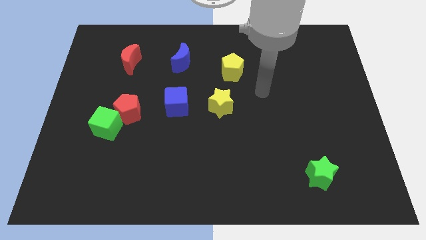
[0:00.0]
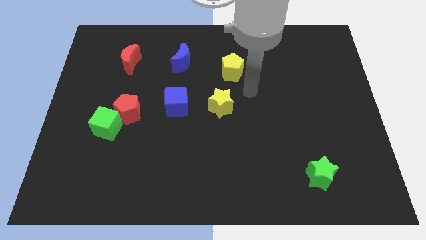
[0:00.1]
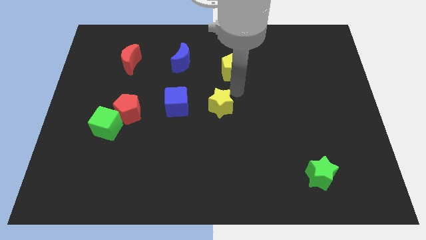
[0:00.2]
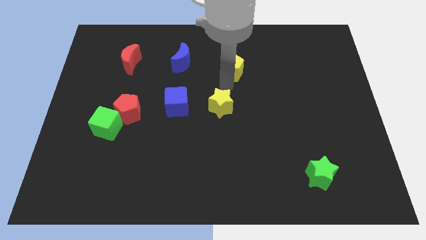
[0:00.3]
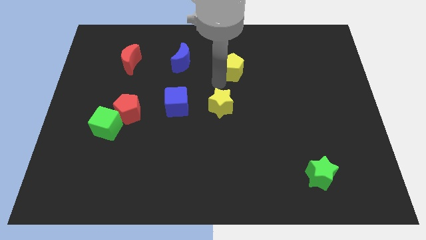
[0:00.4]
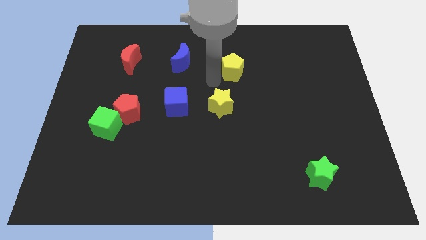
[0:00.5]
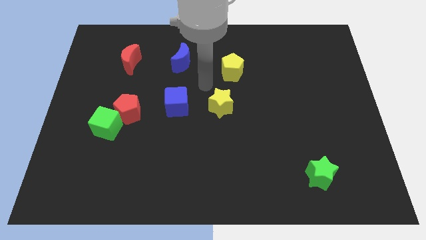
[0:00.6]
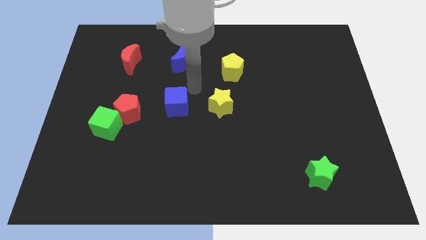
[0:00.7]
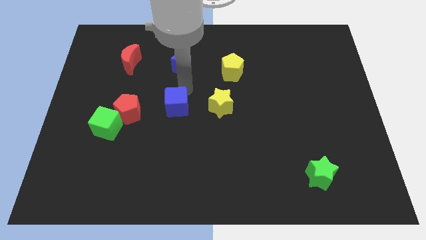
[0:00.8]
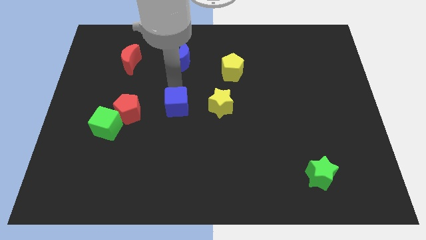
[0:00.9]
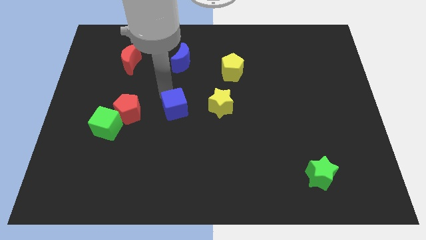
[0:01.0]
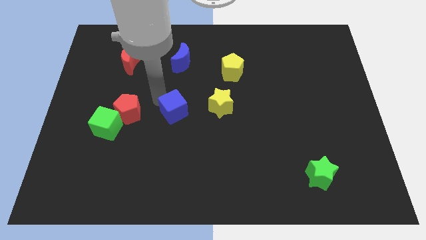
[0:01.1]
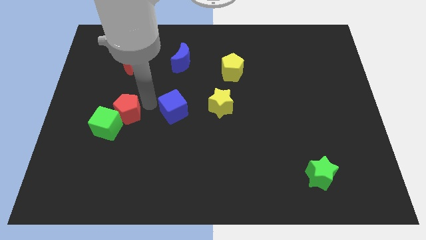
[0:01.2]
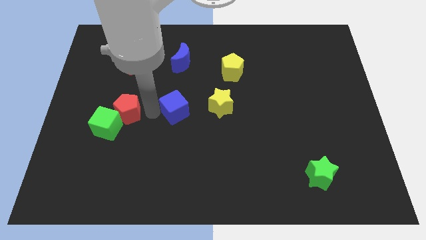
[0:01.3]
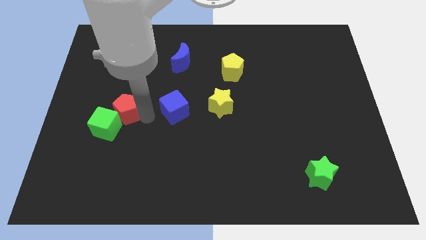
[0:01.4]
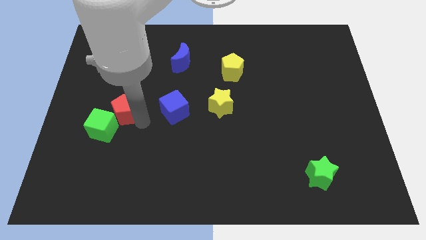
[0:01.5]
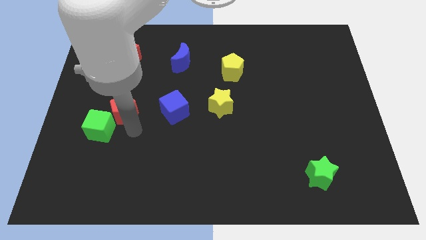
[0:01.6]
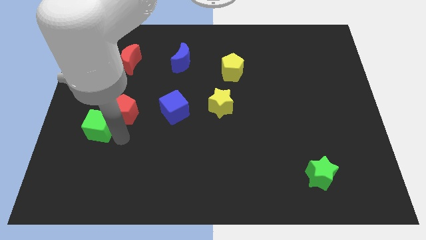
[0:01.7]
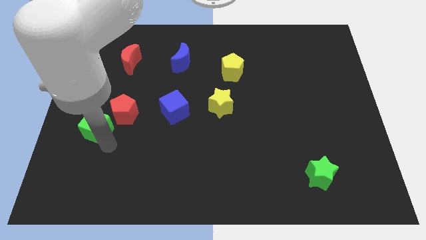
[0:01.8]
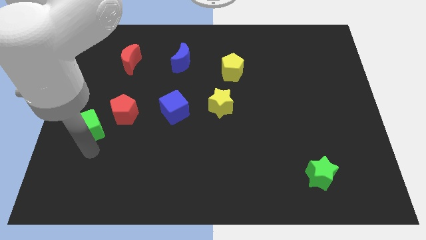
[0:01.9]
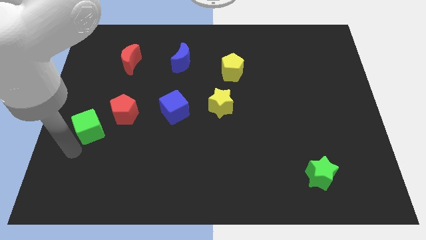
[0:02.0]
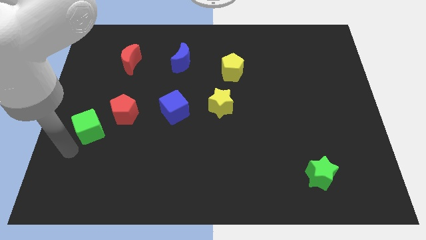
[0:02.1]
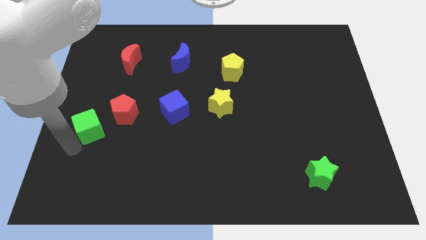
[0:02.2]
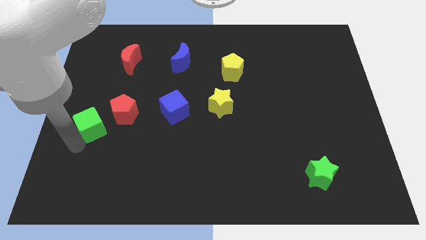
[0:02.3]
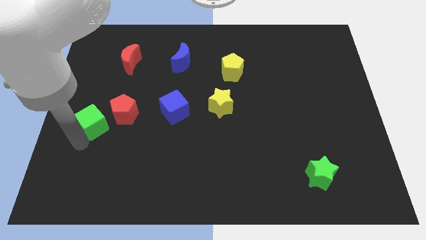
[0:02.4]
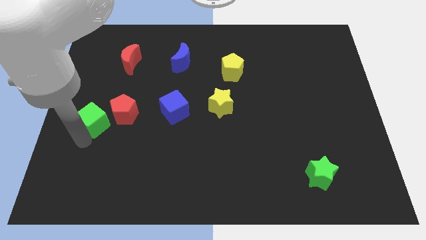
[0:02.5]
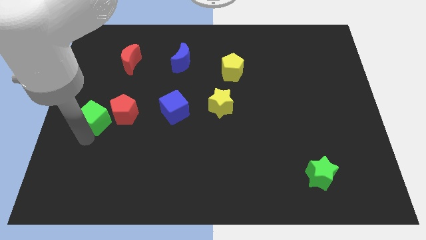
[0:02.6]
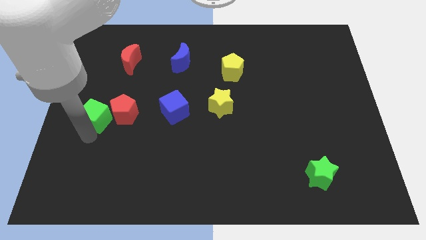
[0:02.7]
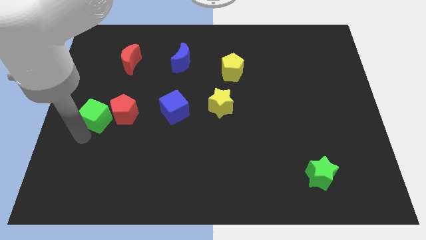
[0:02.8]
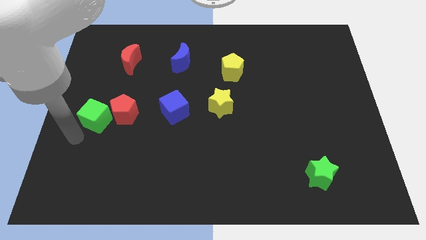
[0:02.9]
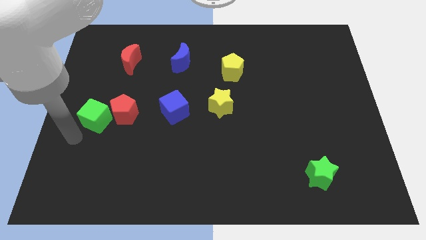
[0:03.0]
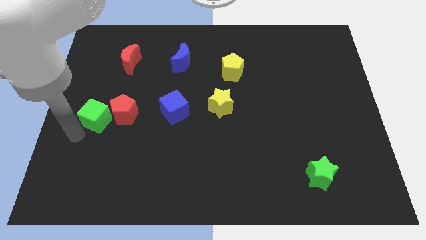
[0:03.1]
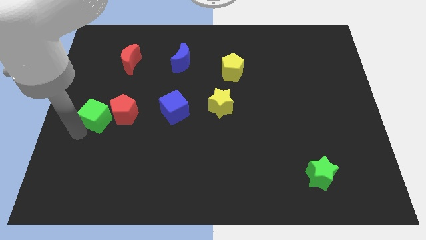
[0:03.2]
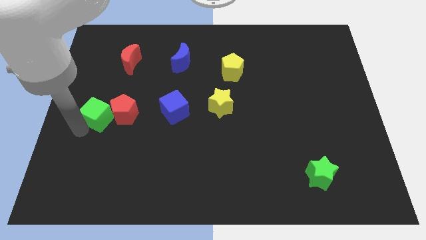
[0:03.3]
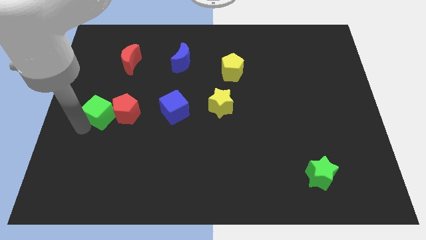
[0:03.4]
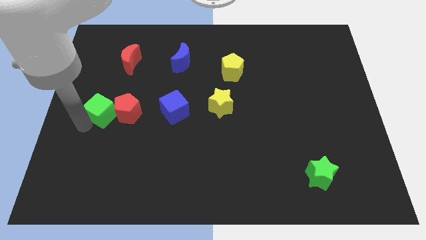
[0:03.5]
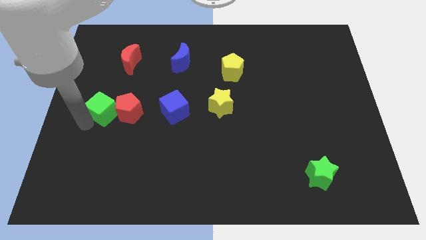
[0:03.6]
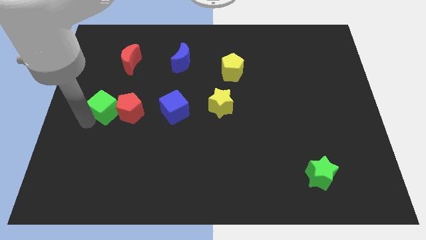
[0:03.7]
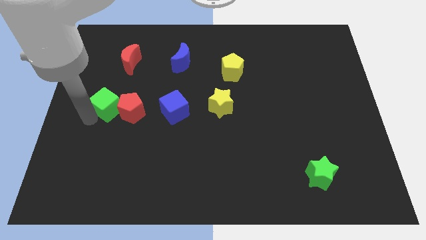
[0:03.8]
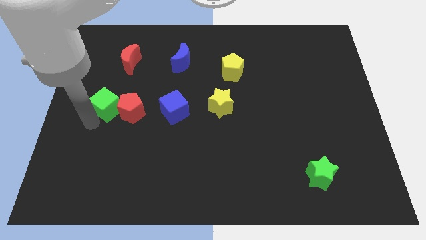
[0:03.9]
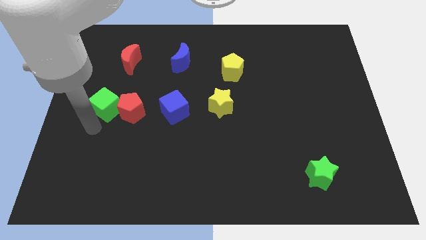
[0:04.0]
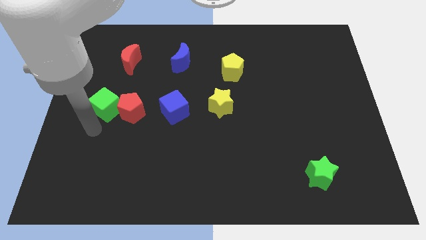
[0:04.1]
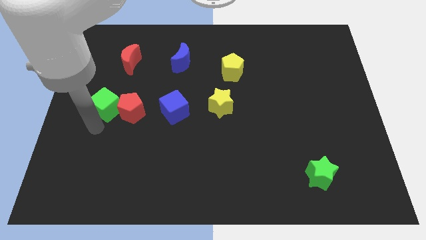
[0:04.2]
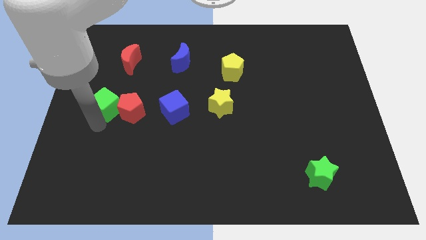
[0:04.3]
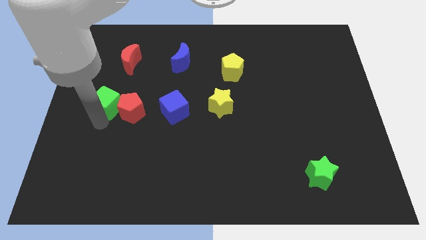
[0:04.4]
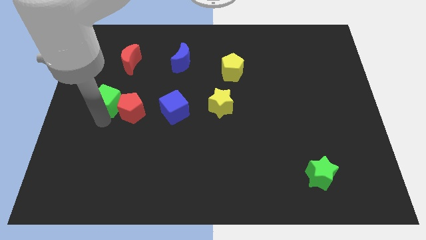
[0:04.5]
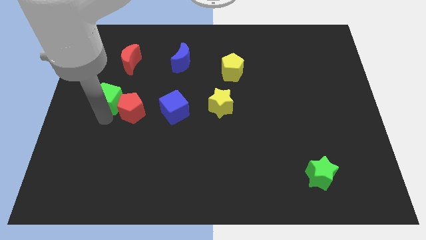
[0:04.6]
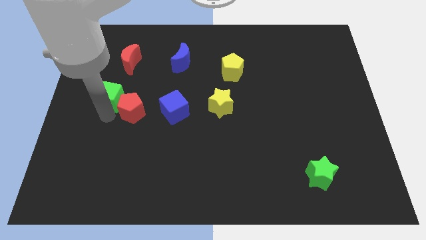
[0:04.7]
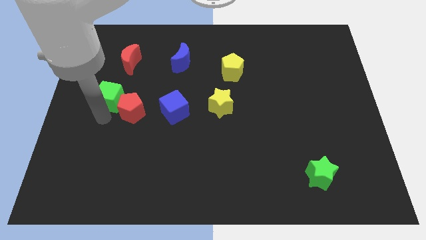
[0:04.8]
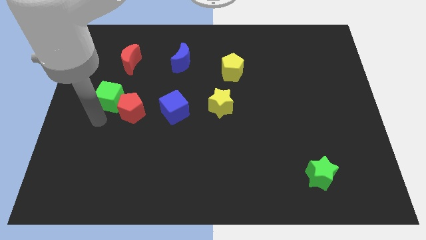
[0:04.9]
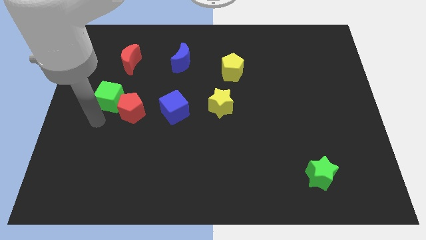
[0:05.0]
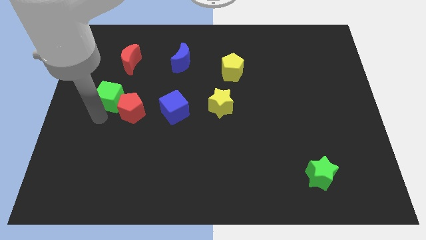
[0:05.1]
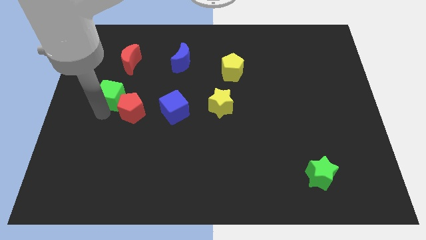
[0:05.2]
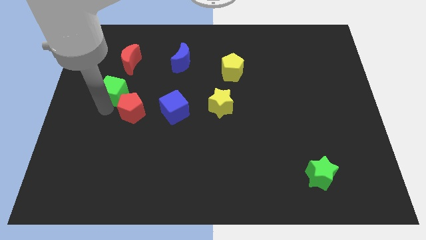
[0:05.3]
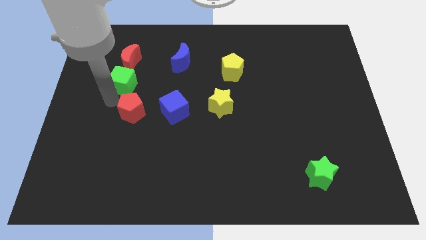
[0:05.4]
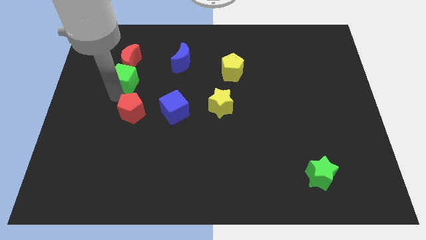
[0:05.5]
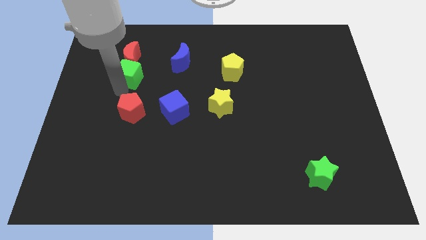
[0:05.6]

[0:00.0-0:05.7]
put the green cube towards the red moon

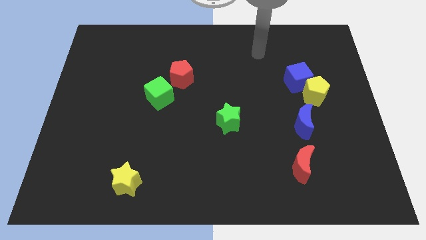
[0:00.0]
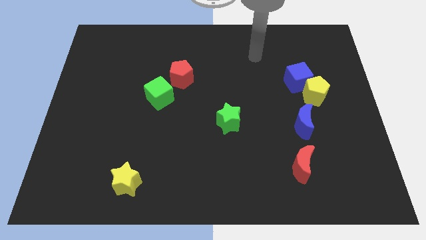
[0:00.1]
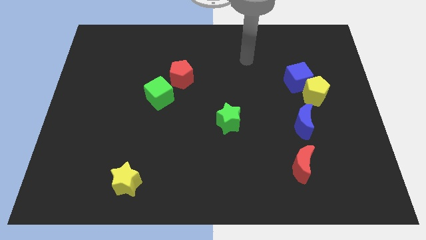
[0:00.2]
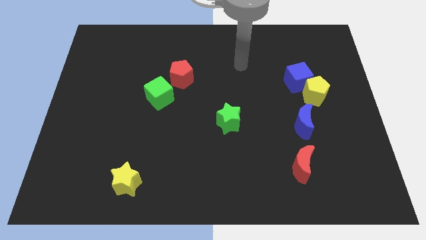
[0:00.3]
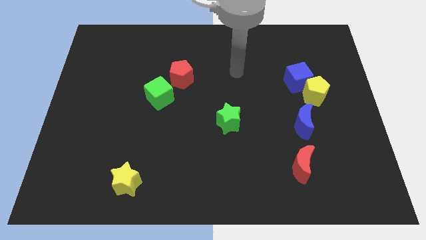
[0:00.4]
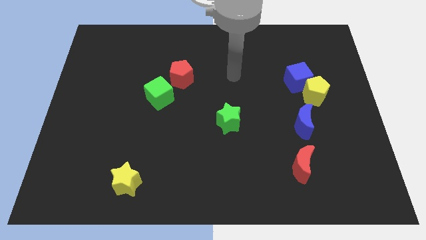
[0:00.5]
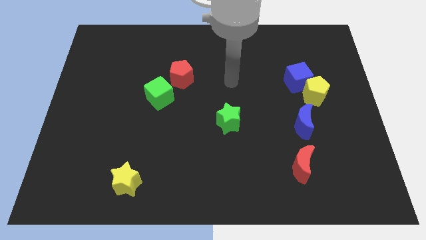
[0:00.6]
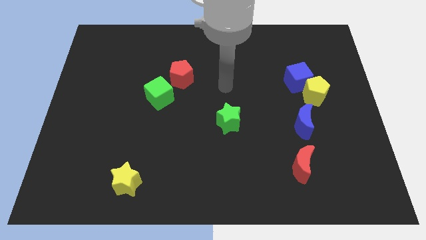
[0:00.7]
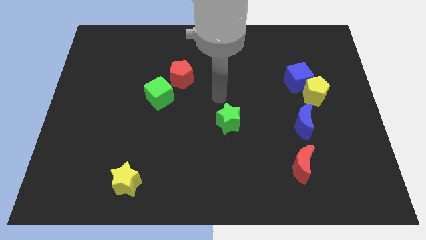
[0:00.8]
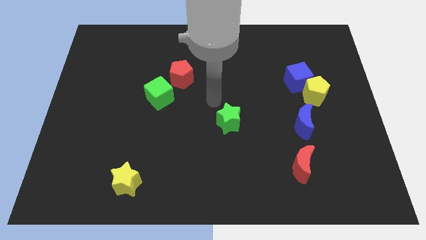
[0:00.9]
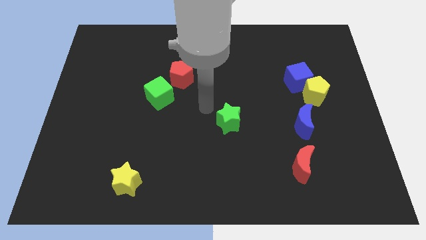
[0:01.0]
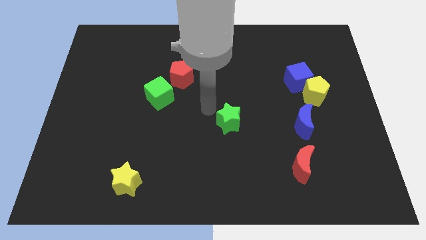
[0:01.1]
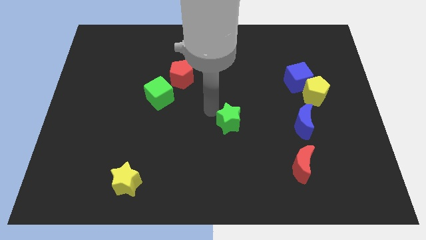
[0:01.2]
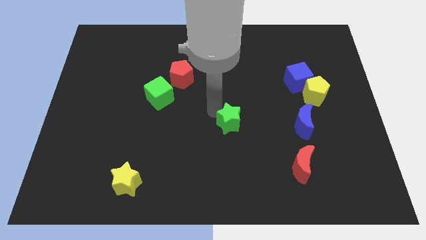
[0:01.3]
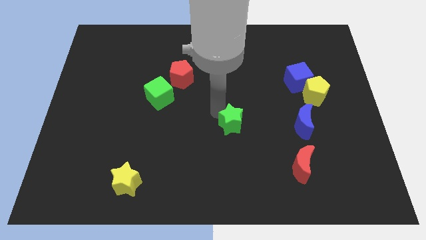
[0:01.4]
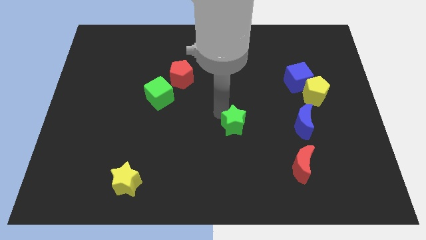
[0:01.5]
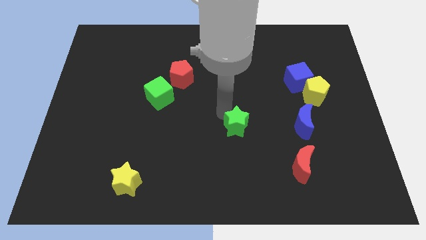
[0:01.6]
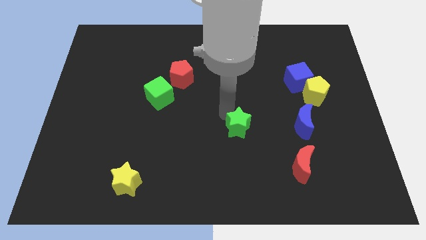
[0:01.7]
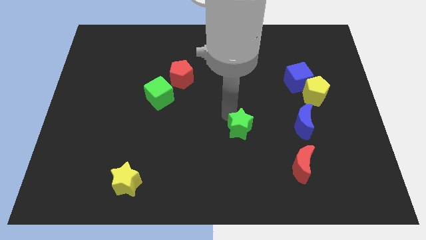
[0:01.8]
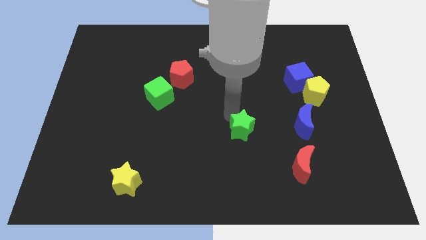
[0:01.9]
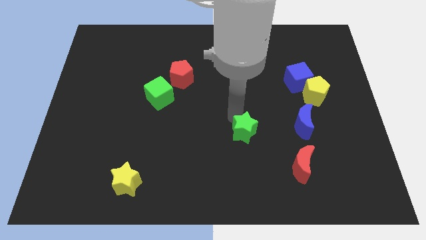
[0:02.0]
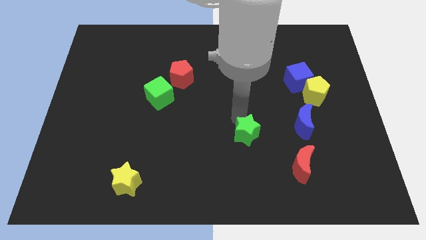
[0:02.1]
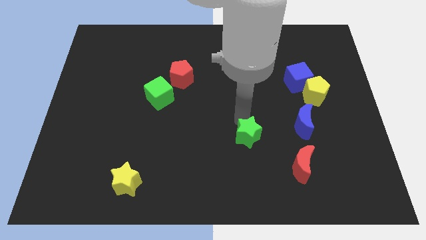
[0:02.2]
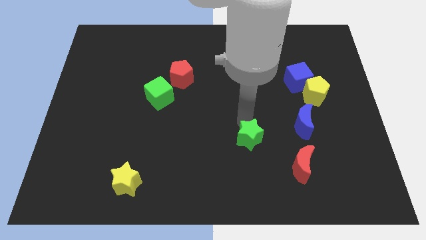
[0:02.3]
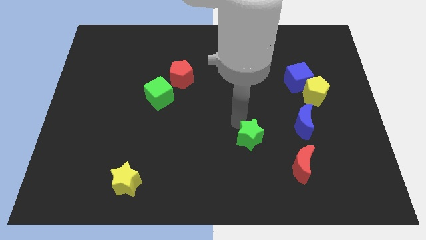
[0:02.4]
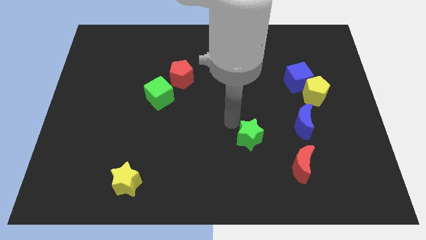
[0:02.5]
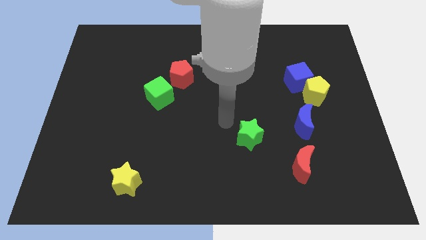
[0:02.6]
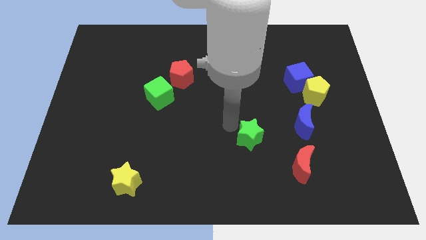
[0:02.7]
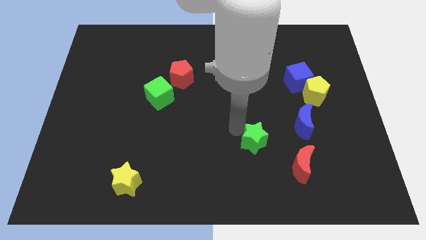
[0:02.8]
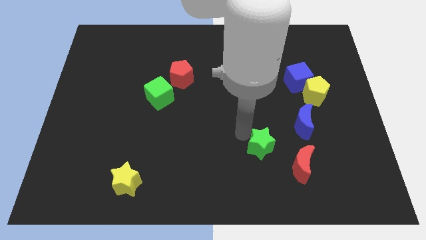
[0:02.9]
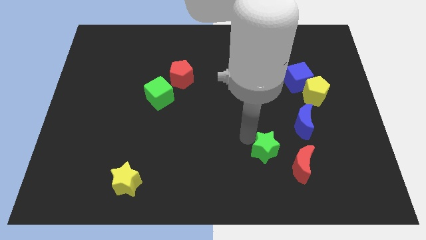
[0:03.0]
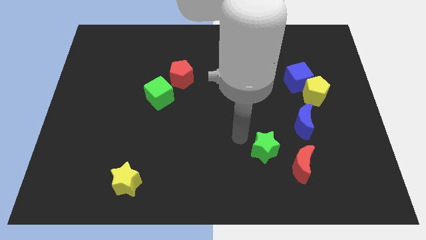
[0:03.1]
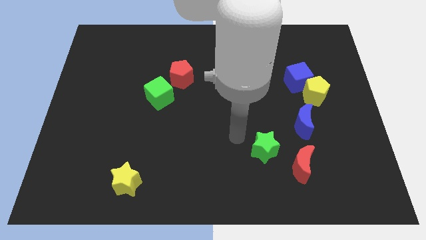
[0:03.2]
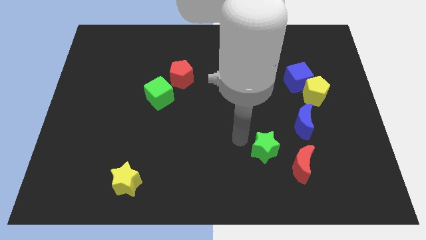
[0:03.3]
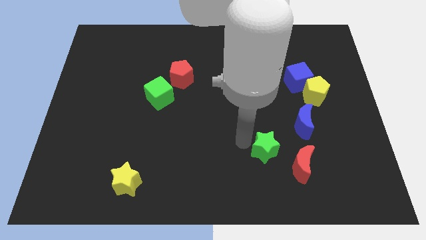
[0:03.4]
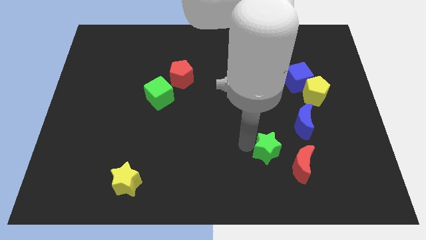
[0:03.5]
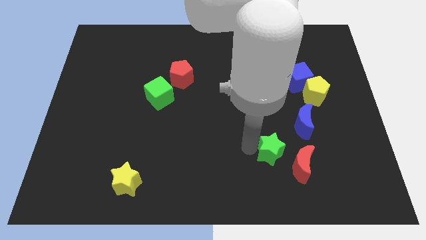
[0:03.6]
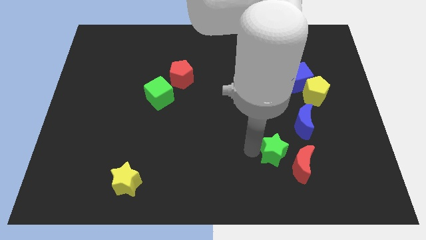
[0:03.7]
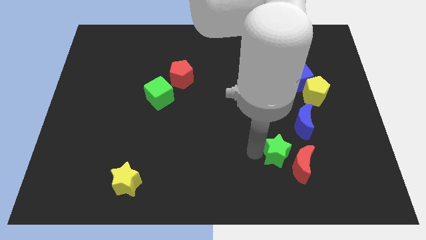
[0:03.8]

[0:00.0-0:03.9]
slide the green star close to the red moon
